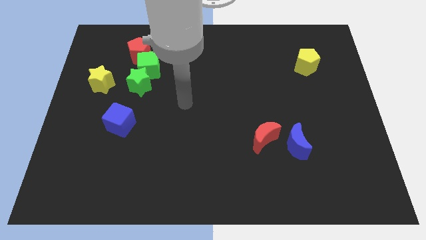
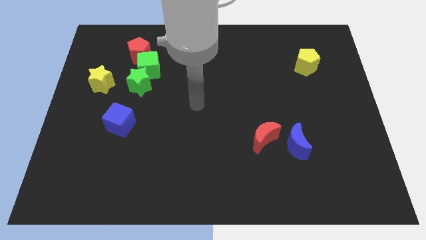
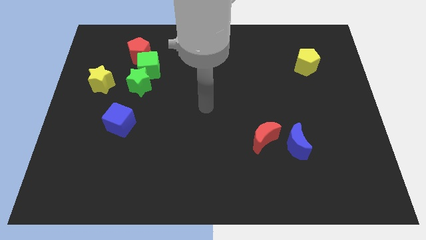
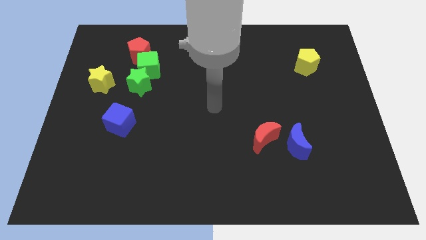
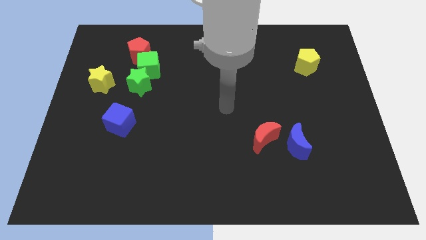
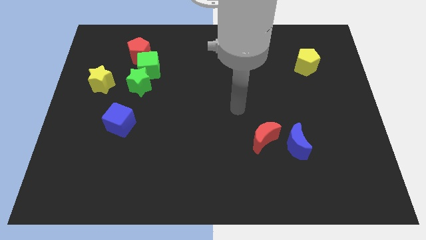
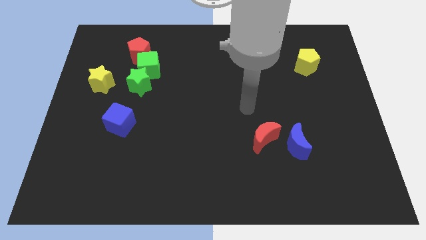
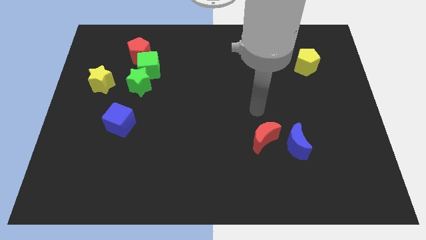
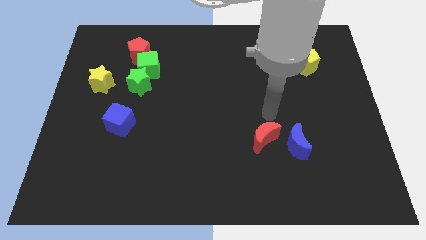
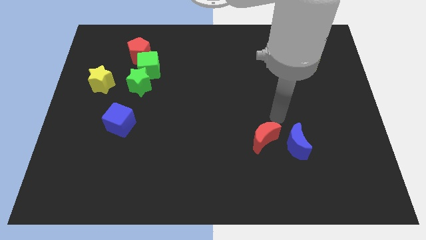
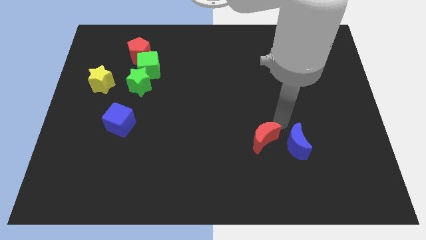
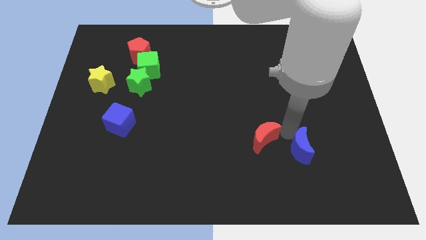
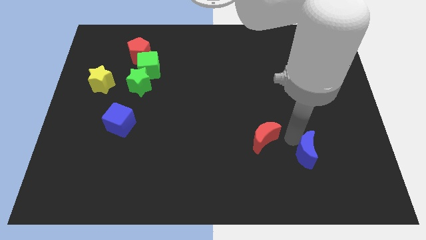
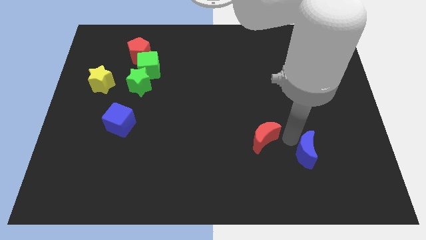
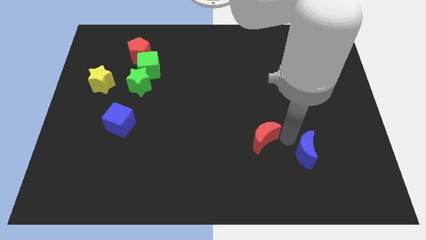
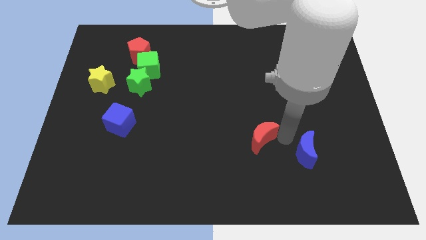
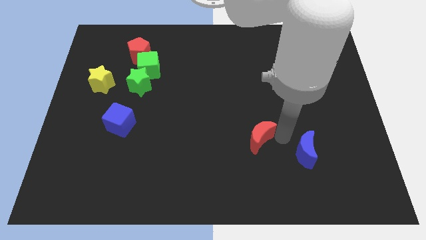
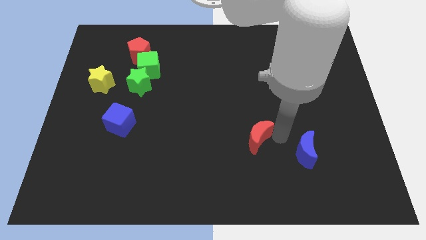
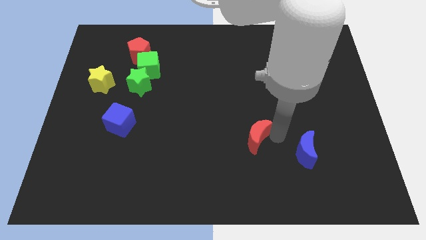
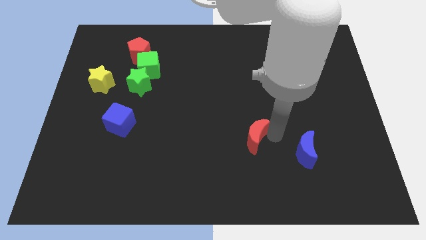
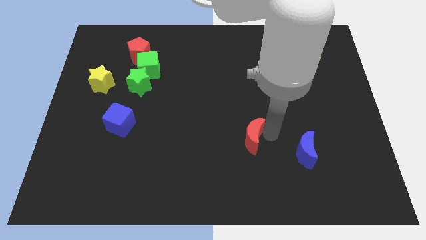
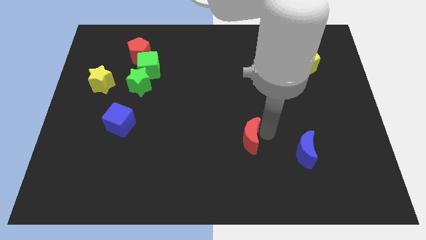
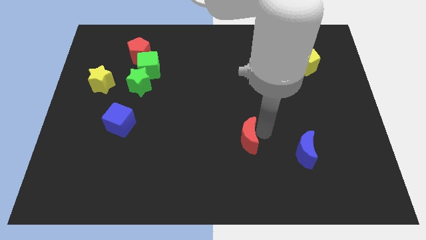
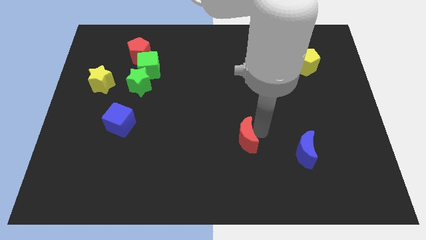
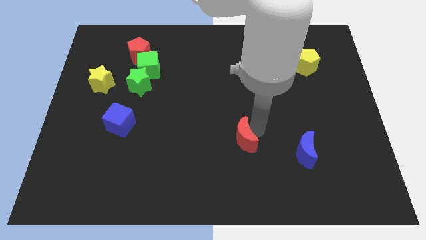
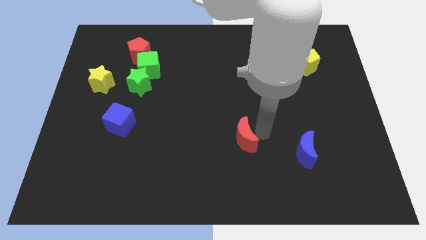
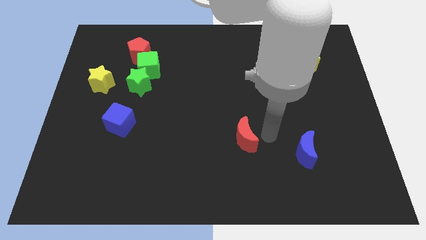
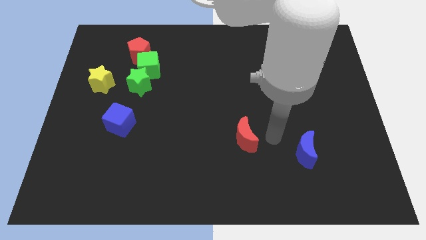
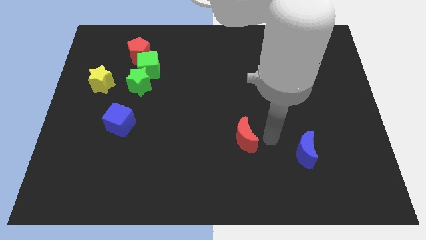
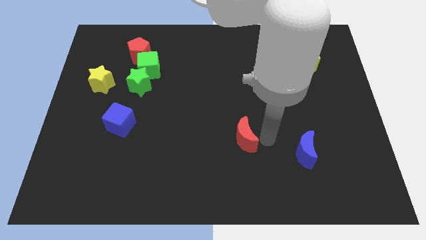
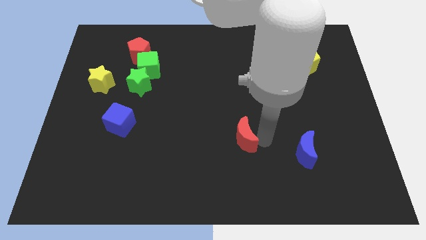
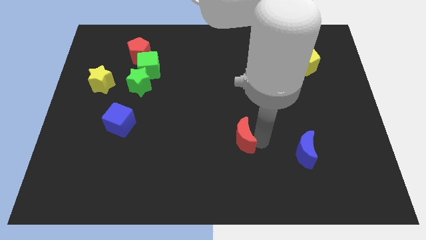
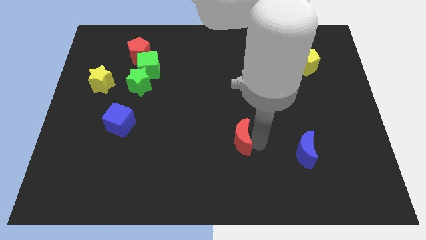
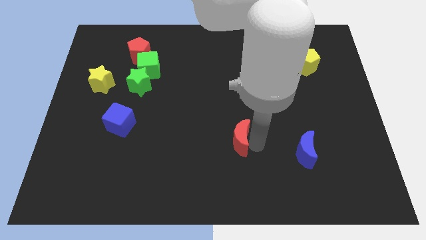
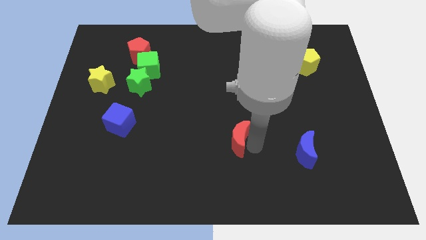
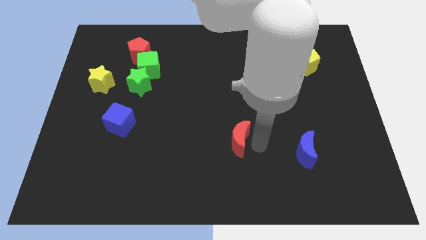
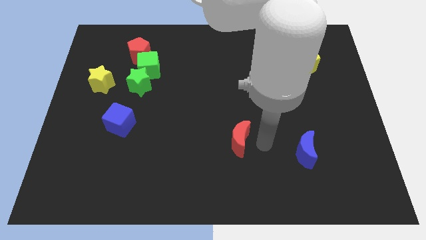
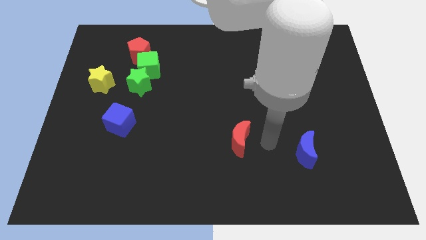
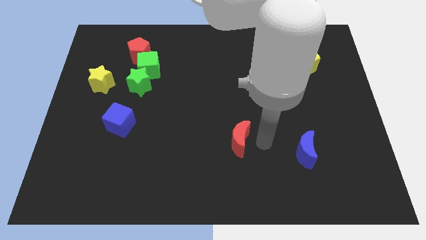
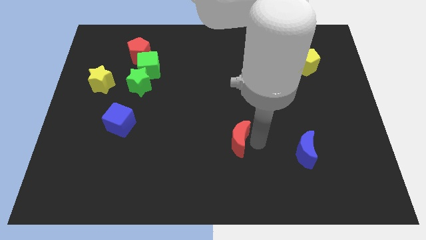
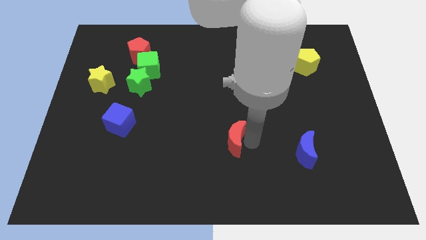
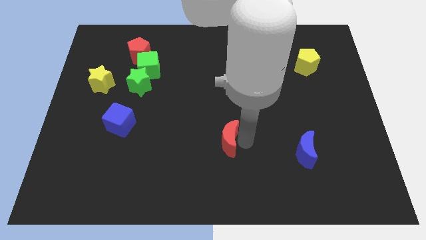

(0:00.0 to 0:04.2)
move the red moon left a bit

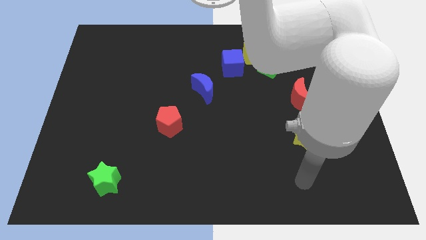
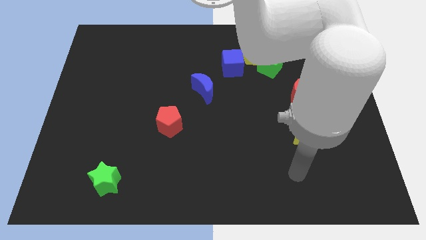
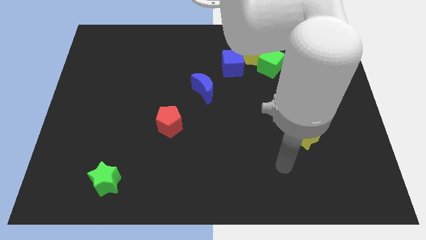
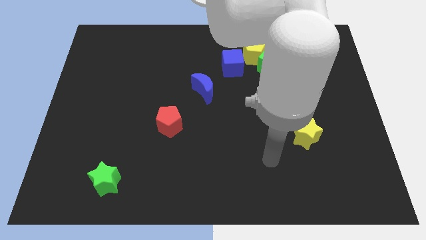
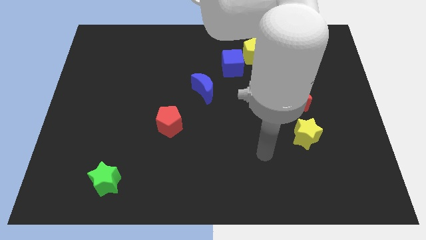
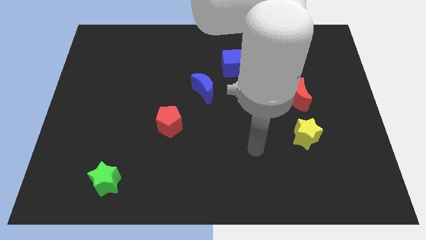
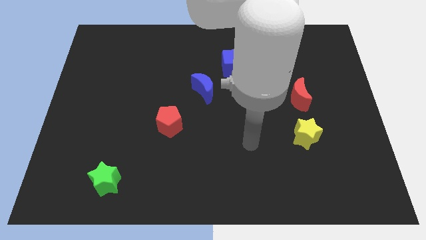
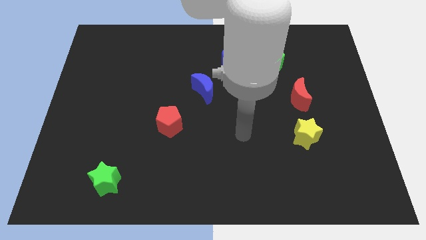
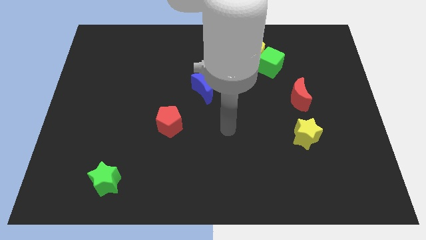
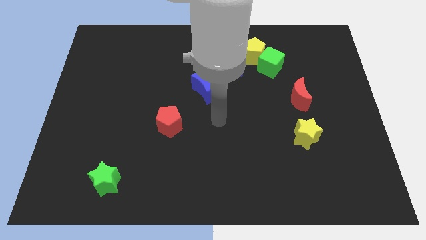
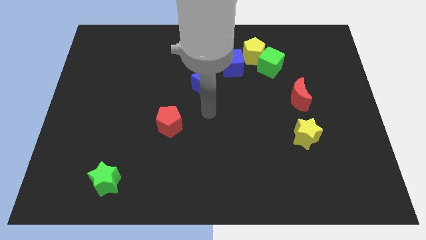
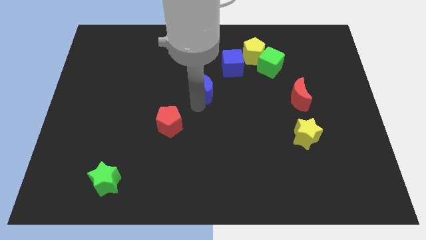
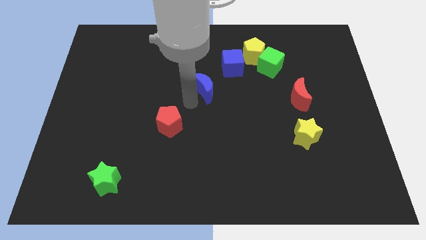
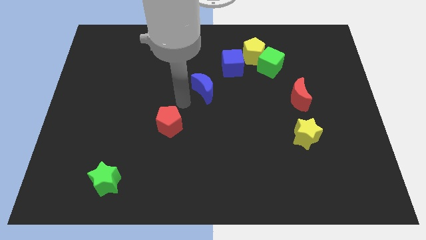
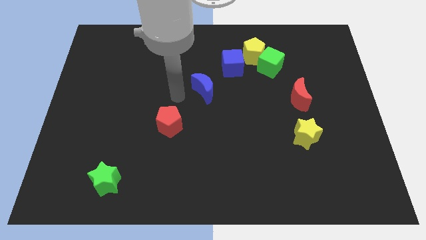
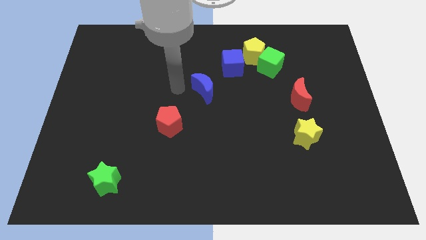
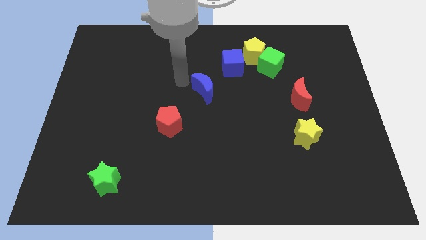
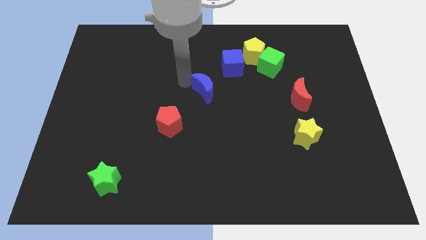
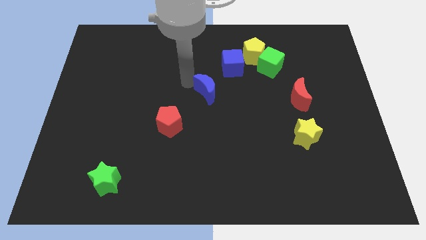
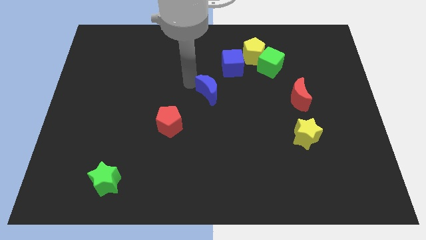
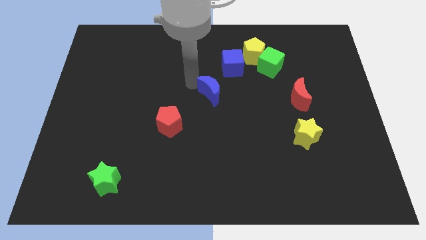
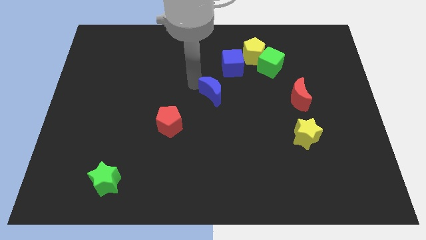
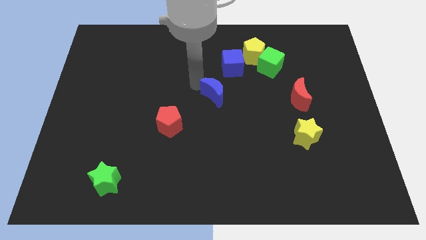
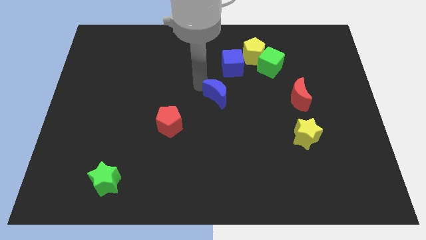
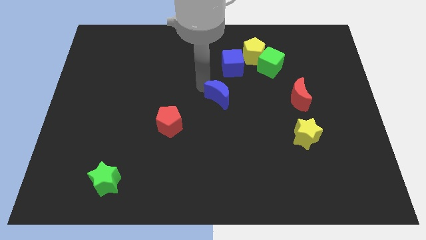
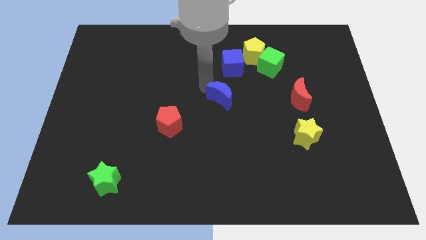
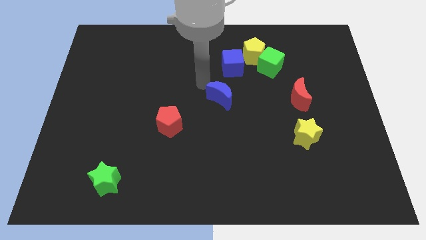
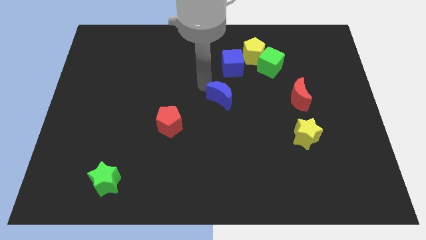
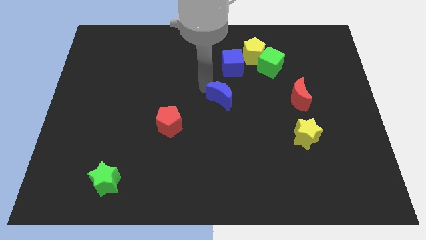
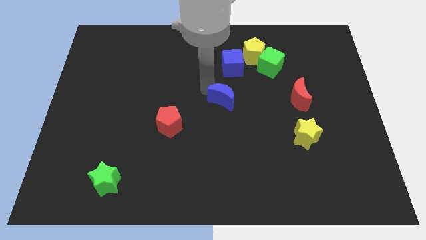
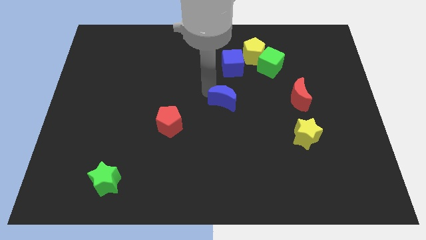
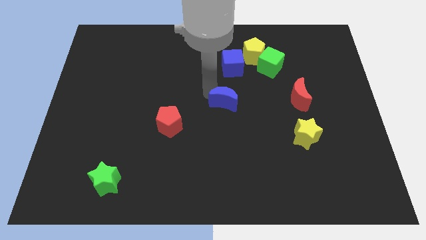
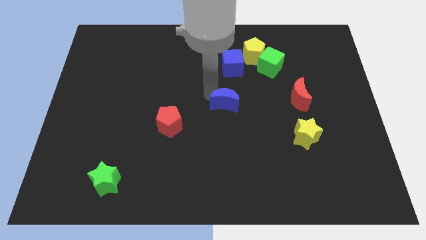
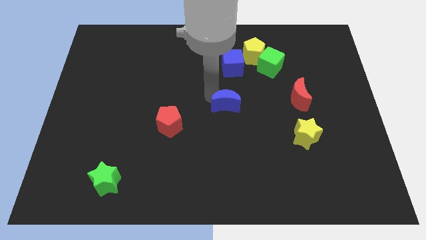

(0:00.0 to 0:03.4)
push the blue moon somewhat diagonally downwards and to the right

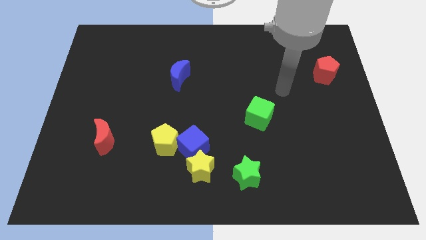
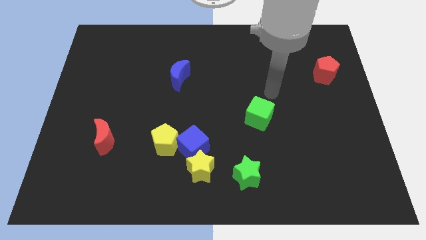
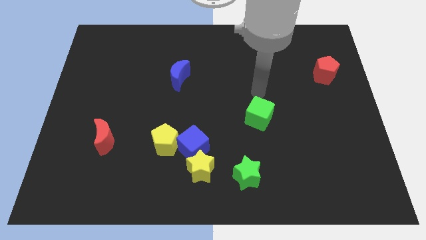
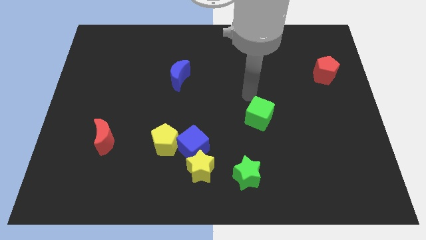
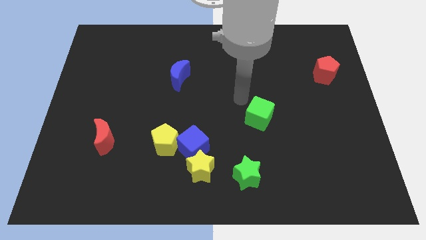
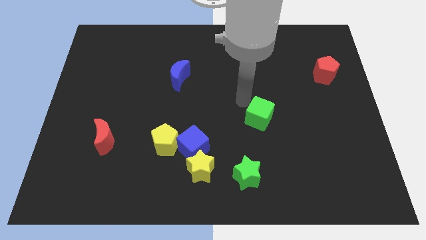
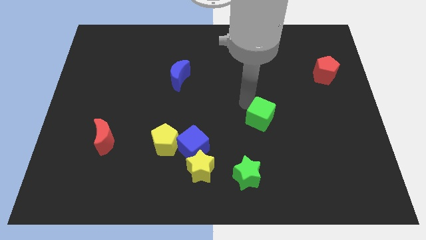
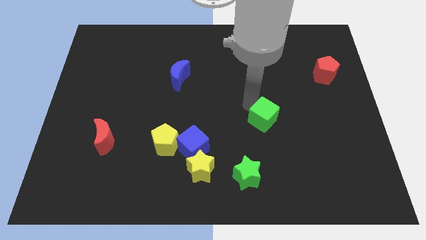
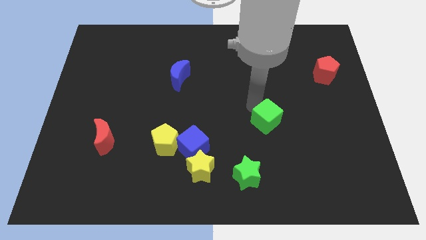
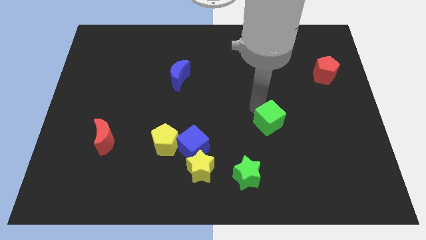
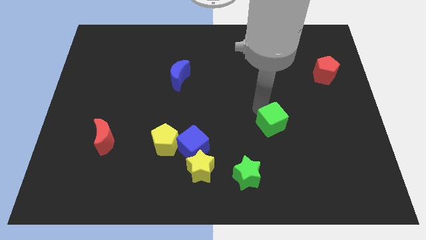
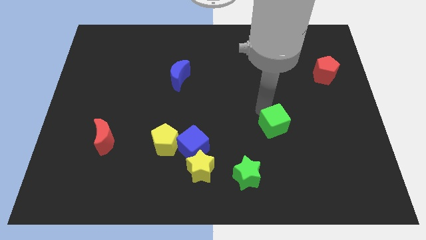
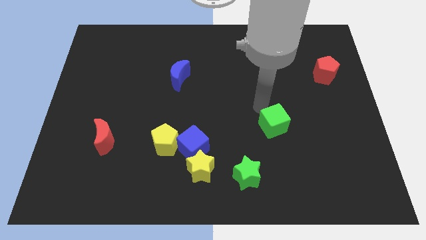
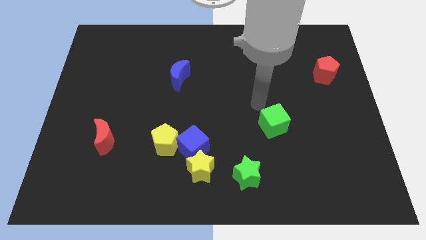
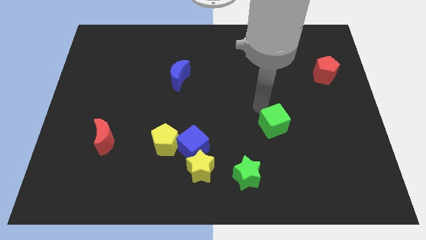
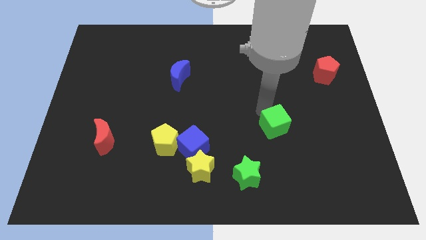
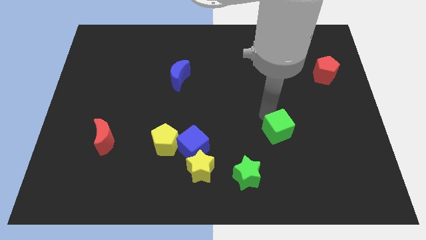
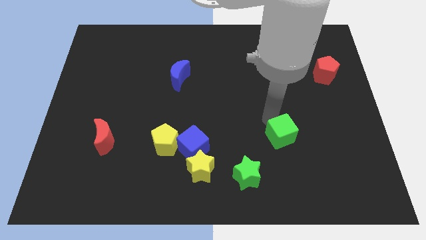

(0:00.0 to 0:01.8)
slightly push the green cube downwards and right diagonally
